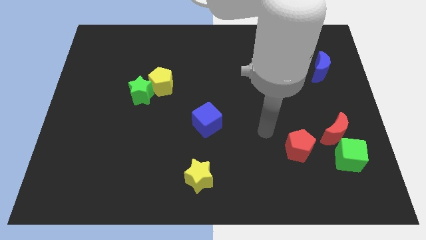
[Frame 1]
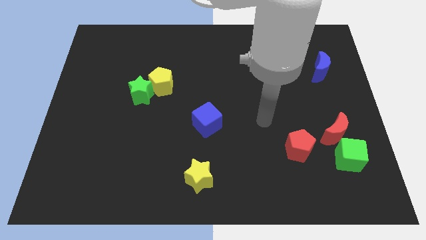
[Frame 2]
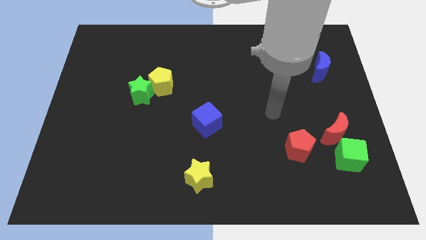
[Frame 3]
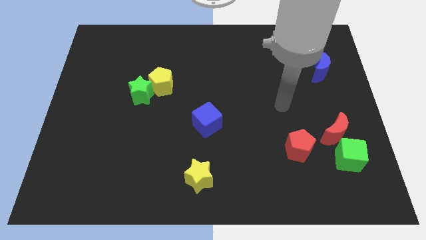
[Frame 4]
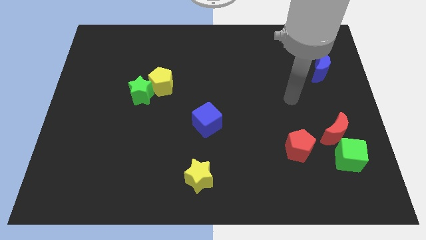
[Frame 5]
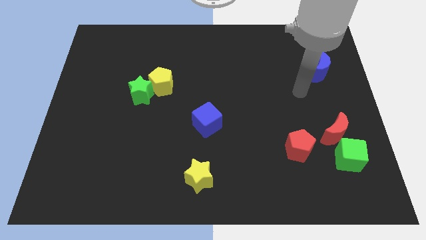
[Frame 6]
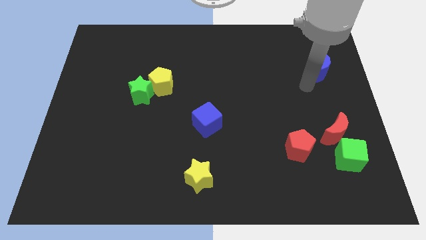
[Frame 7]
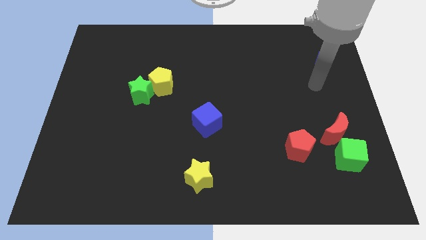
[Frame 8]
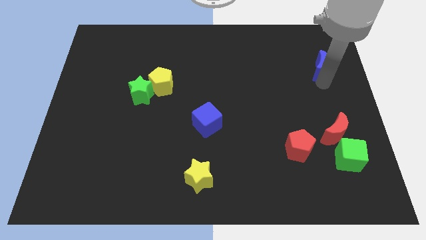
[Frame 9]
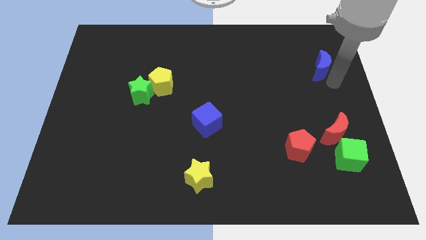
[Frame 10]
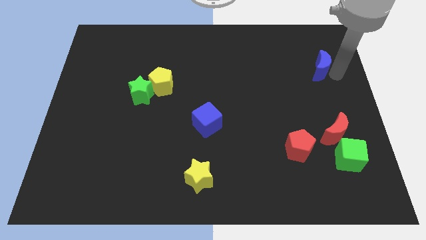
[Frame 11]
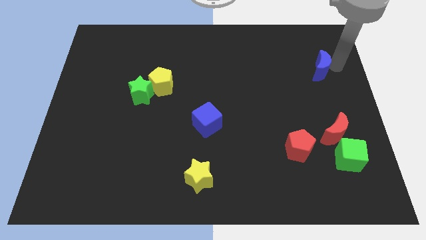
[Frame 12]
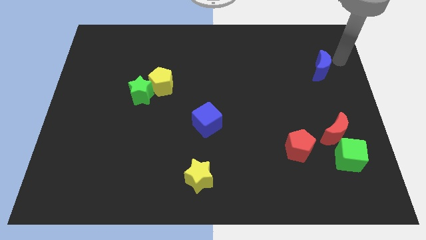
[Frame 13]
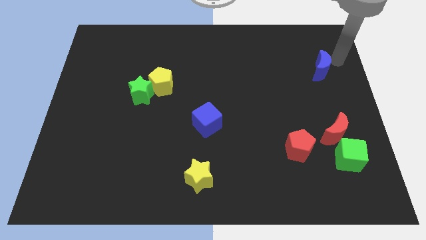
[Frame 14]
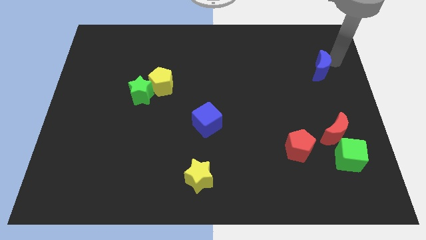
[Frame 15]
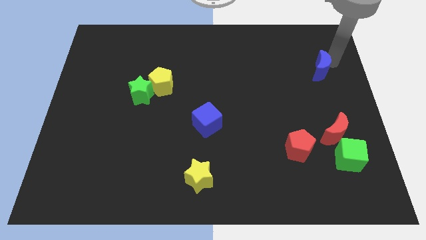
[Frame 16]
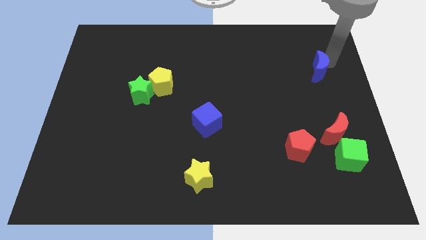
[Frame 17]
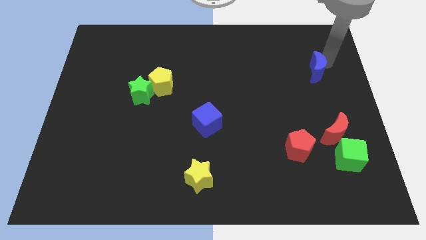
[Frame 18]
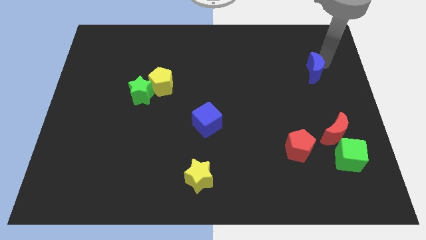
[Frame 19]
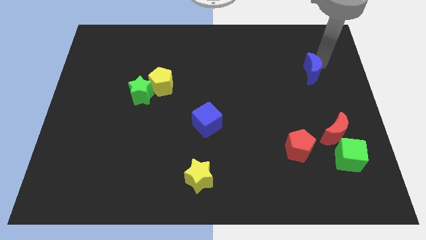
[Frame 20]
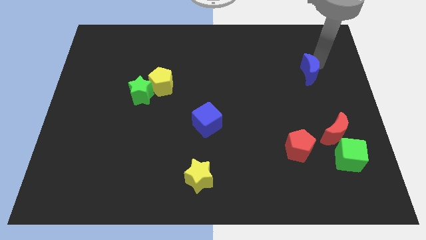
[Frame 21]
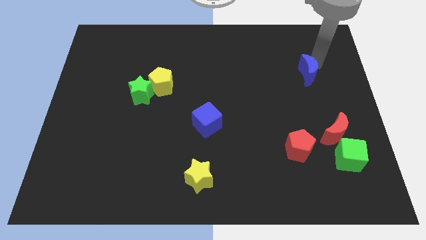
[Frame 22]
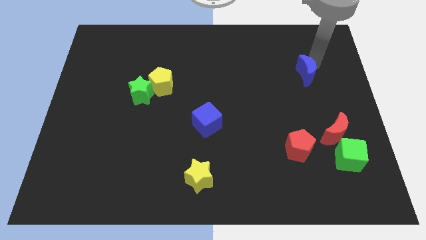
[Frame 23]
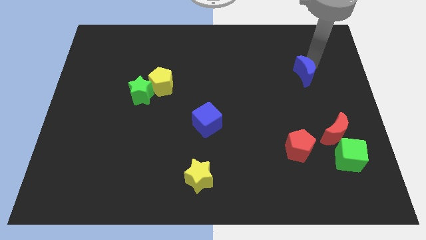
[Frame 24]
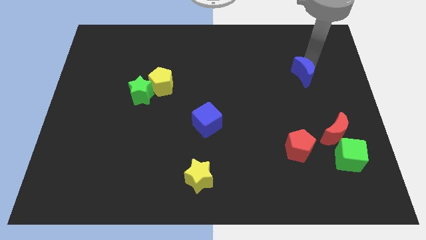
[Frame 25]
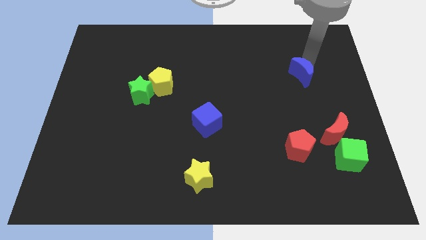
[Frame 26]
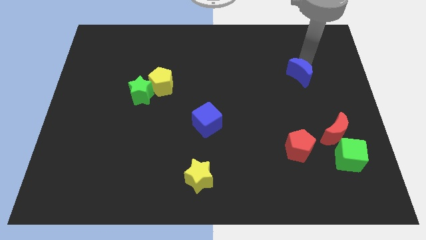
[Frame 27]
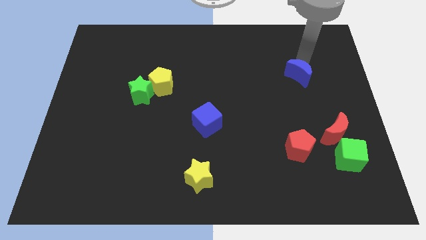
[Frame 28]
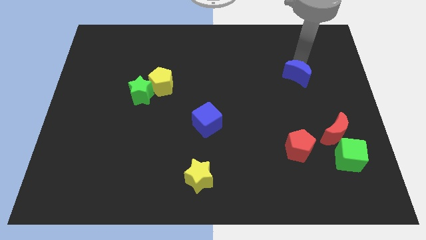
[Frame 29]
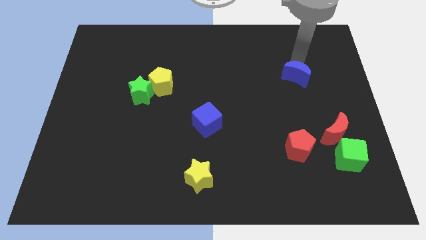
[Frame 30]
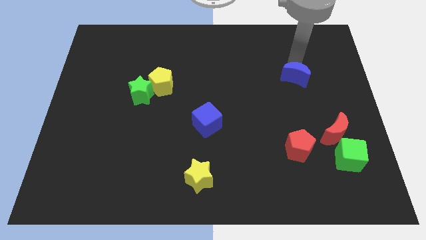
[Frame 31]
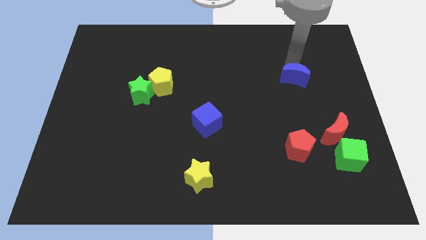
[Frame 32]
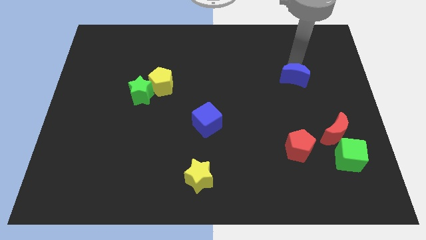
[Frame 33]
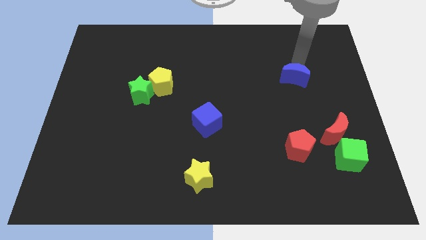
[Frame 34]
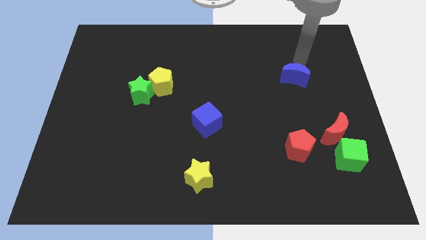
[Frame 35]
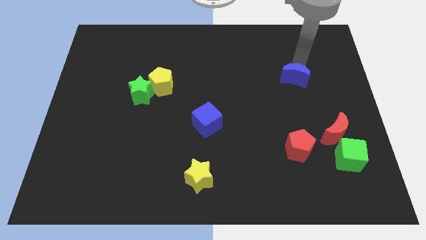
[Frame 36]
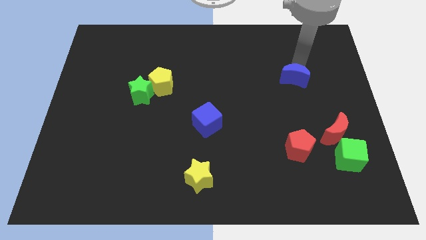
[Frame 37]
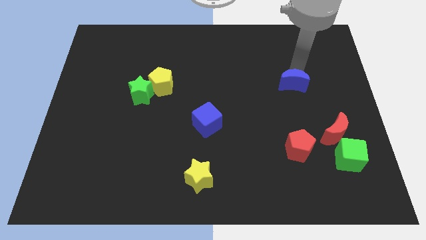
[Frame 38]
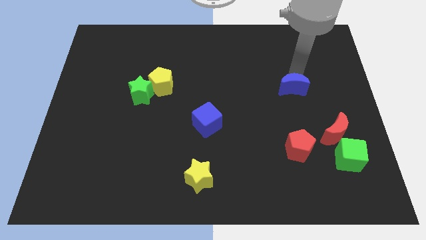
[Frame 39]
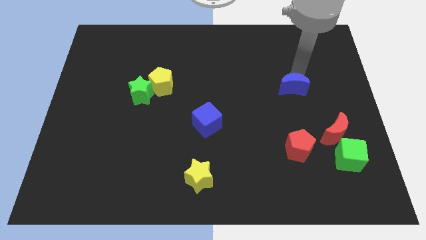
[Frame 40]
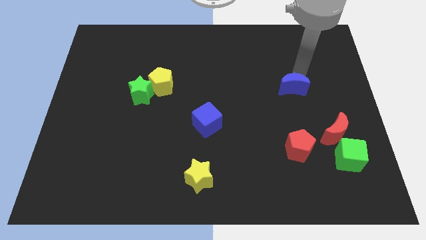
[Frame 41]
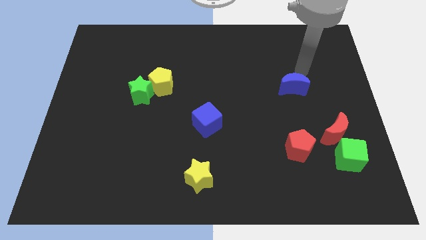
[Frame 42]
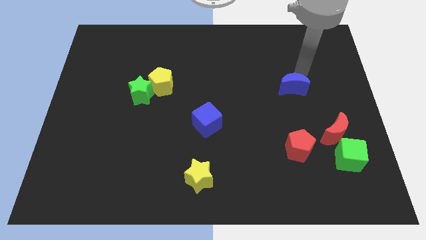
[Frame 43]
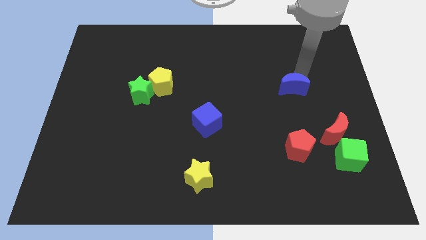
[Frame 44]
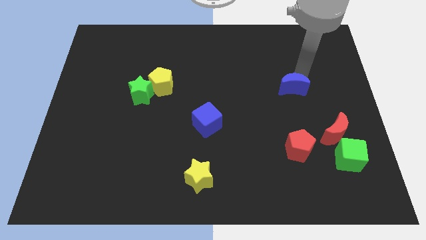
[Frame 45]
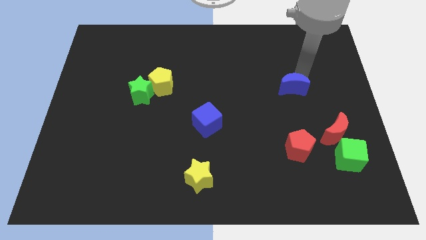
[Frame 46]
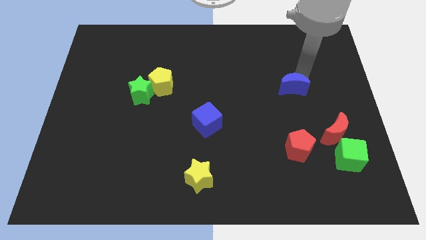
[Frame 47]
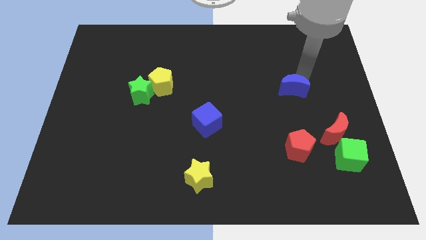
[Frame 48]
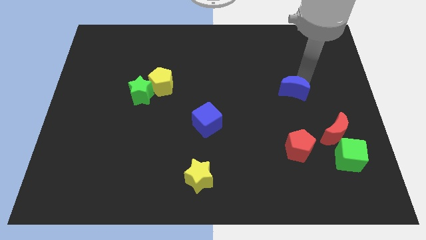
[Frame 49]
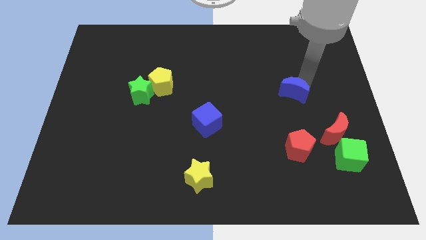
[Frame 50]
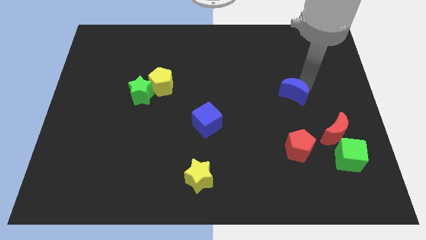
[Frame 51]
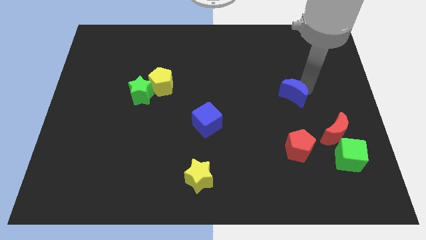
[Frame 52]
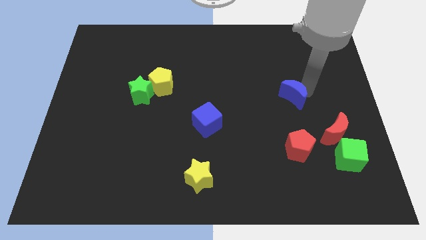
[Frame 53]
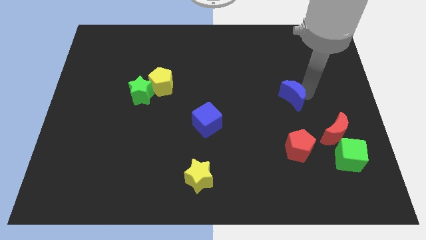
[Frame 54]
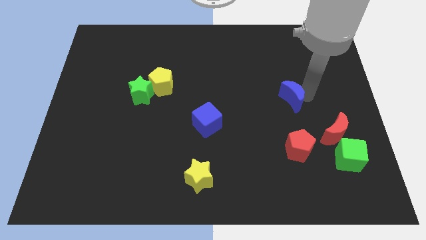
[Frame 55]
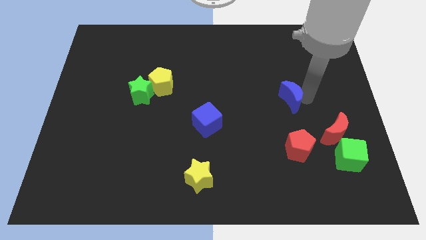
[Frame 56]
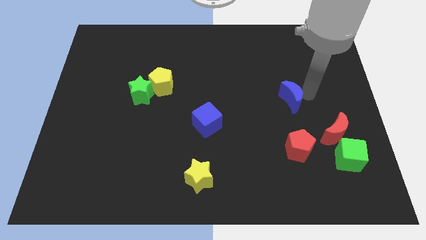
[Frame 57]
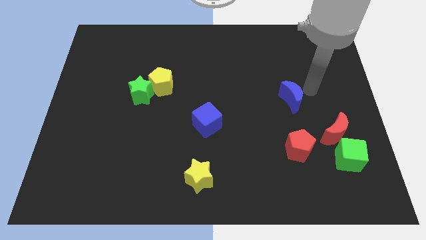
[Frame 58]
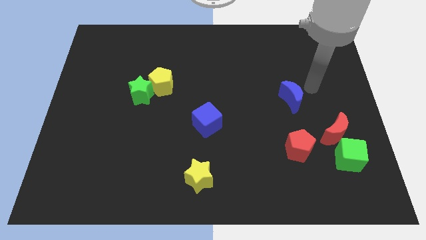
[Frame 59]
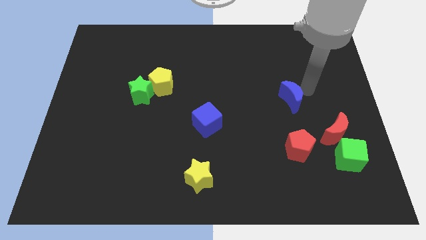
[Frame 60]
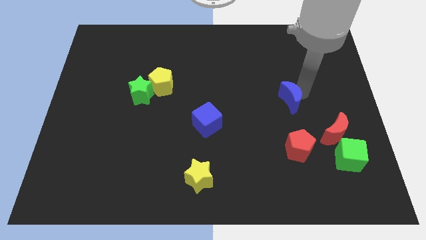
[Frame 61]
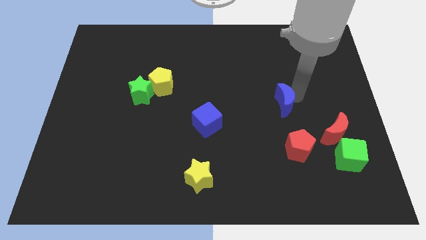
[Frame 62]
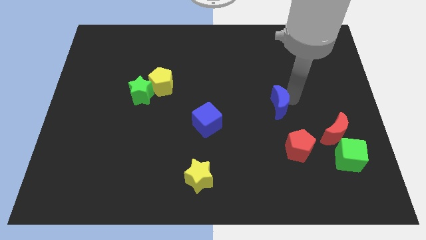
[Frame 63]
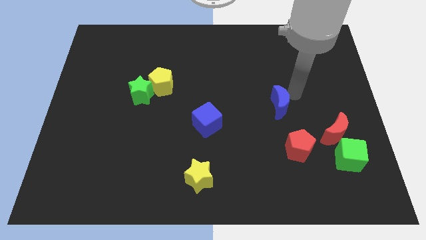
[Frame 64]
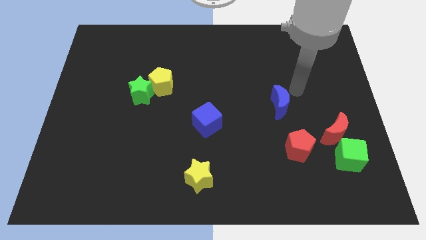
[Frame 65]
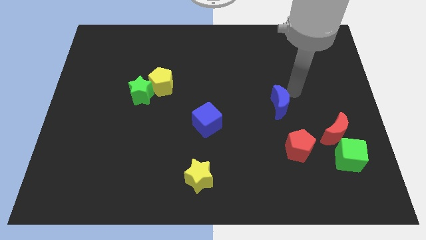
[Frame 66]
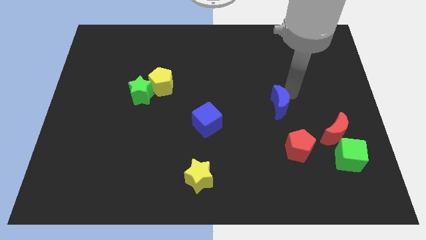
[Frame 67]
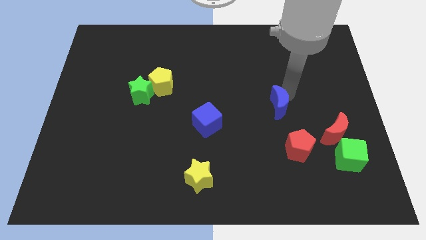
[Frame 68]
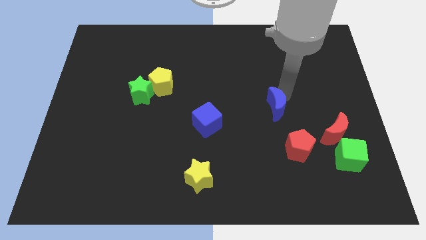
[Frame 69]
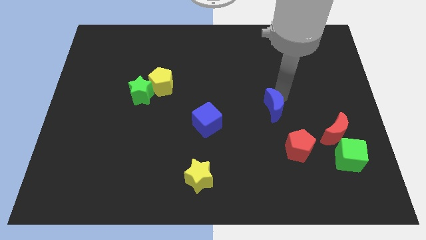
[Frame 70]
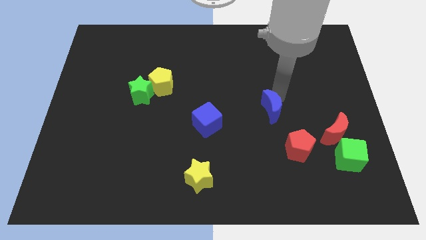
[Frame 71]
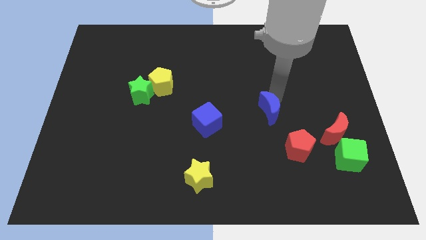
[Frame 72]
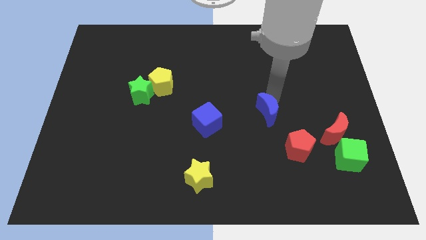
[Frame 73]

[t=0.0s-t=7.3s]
move the blue moon downwards and then left

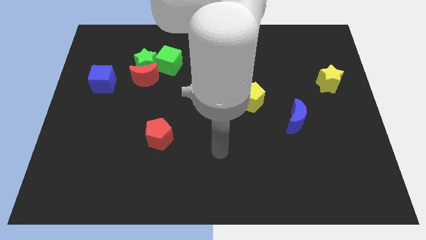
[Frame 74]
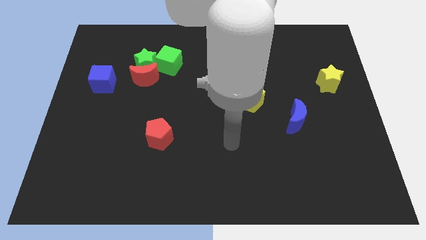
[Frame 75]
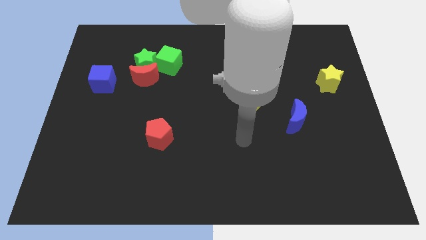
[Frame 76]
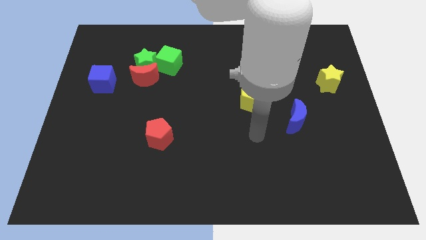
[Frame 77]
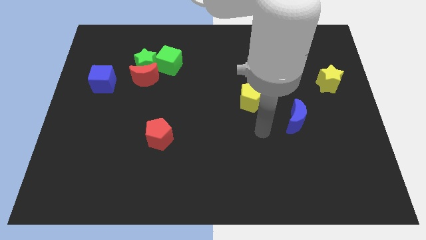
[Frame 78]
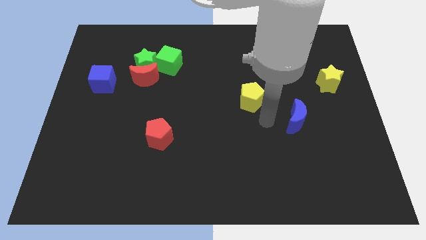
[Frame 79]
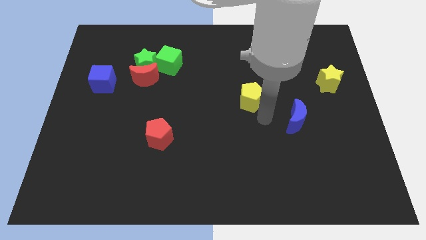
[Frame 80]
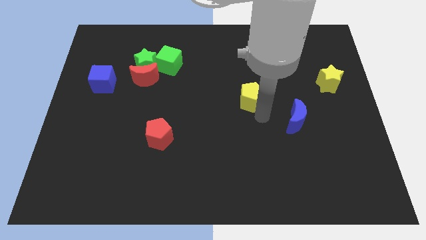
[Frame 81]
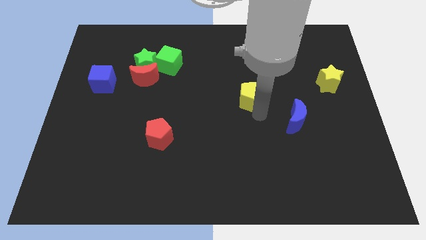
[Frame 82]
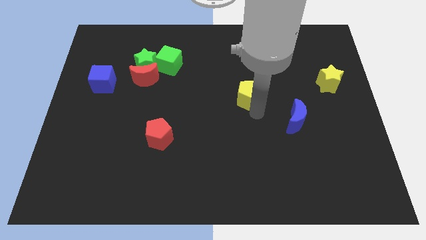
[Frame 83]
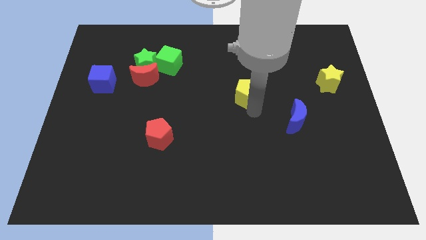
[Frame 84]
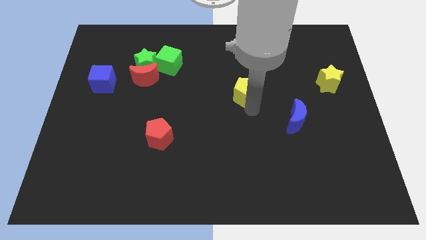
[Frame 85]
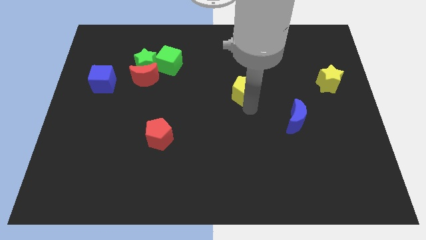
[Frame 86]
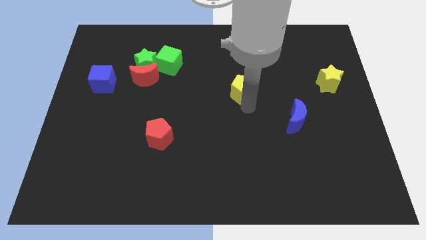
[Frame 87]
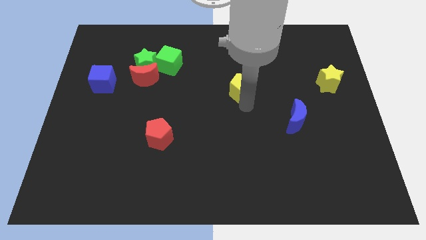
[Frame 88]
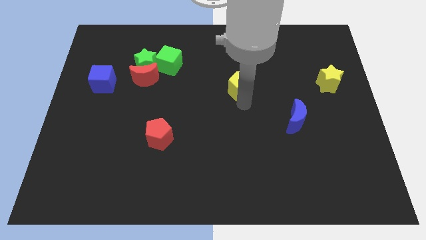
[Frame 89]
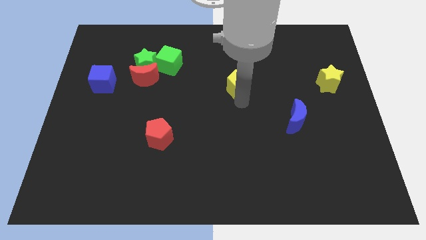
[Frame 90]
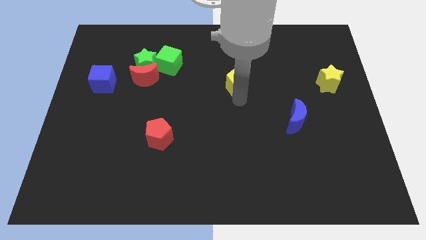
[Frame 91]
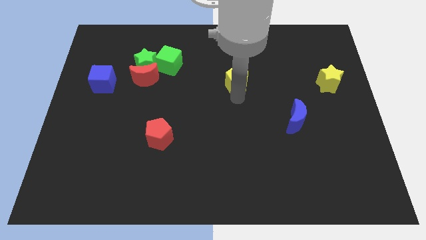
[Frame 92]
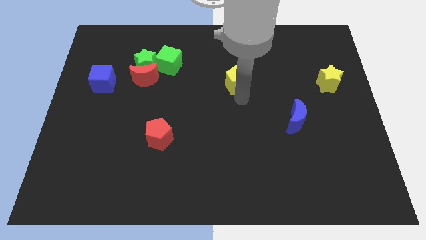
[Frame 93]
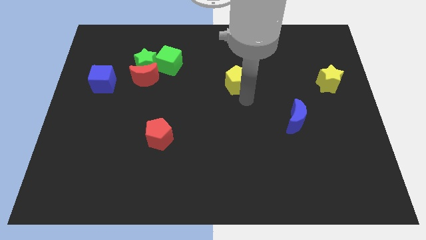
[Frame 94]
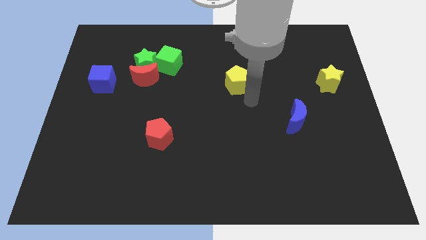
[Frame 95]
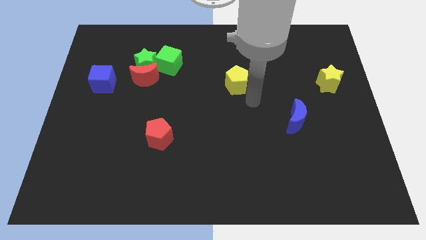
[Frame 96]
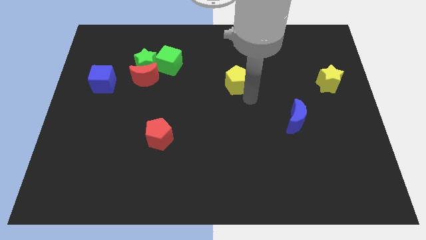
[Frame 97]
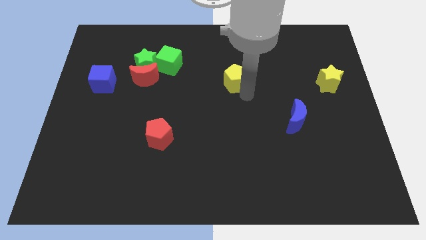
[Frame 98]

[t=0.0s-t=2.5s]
slide the yellow pentagon a little upwards and left diagonally
